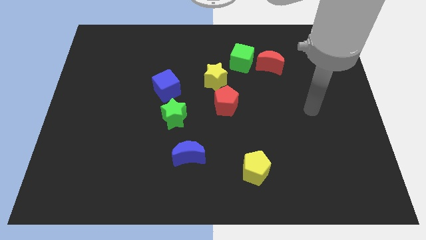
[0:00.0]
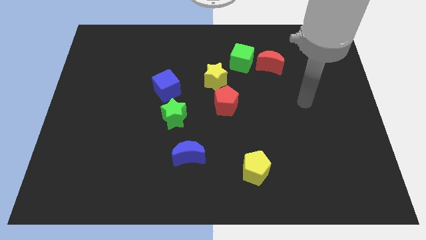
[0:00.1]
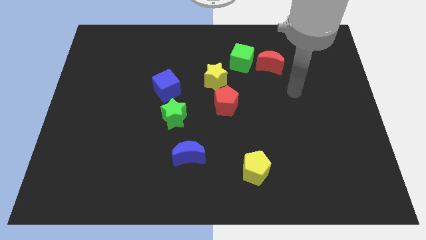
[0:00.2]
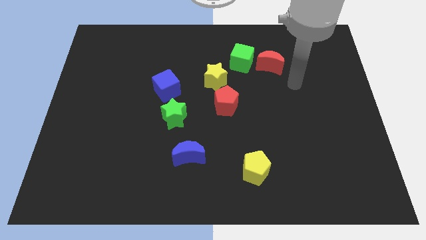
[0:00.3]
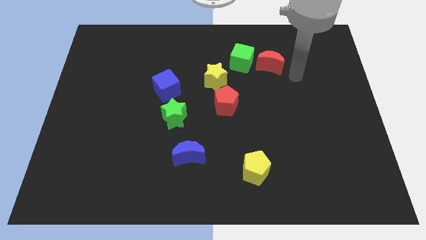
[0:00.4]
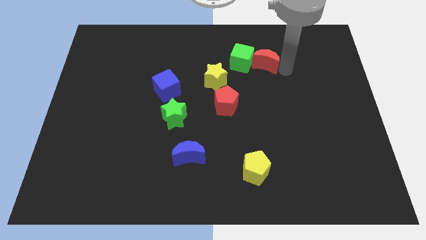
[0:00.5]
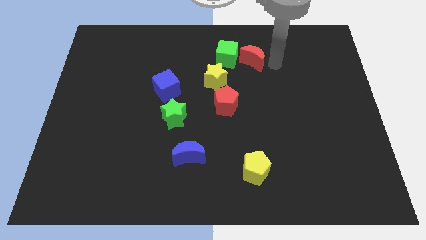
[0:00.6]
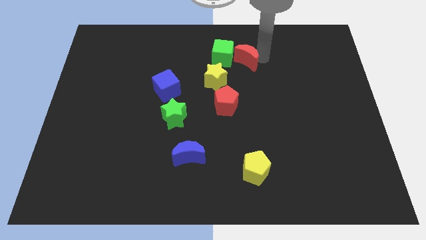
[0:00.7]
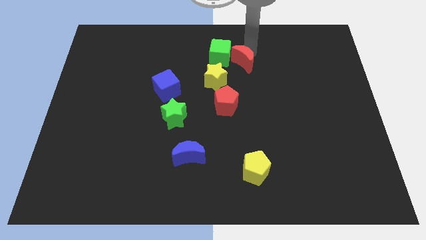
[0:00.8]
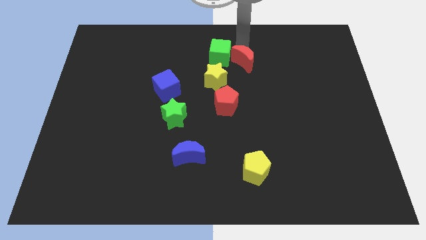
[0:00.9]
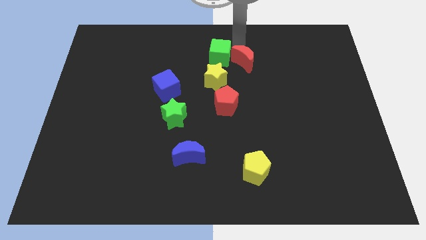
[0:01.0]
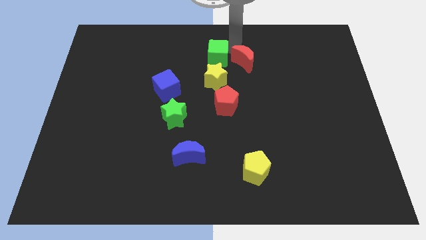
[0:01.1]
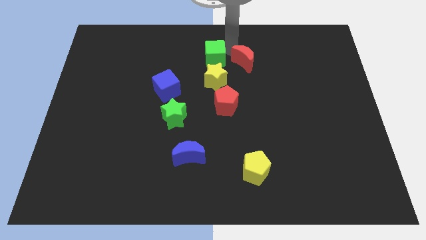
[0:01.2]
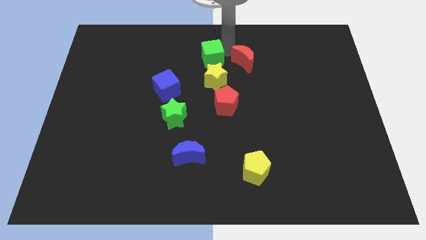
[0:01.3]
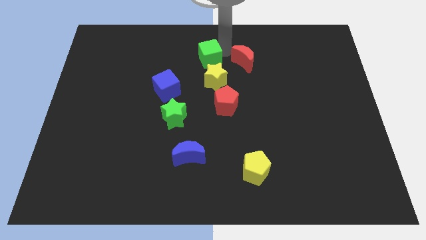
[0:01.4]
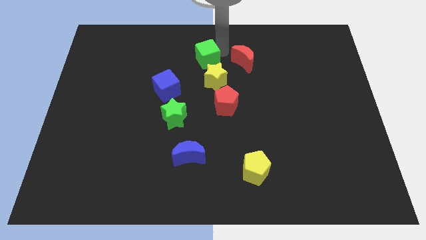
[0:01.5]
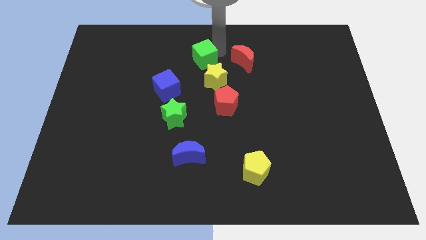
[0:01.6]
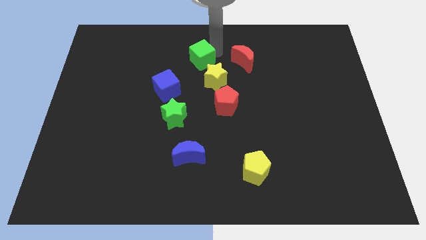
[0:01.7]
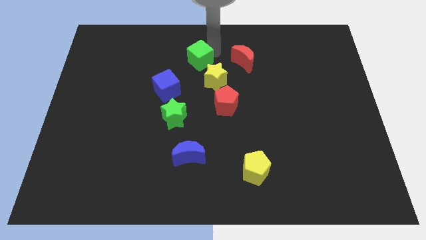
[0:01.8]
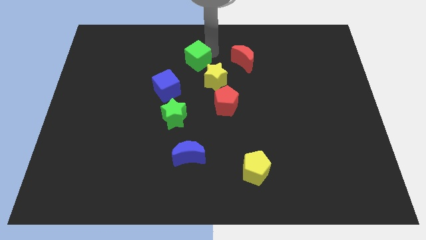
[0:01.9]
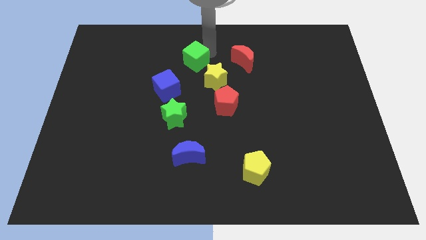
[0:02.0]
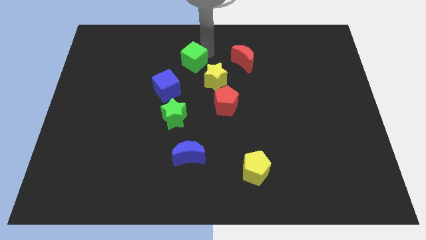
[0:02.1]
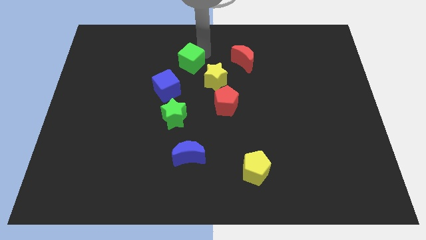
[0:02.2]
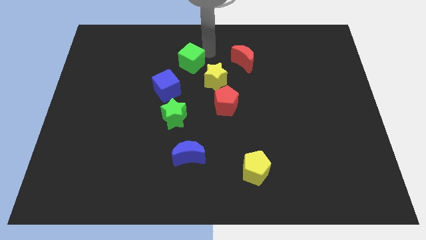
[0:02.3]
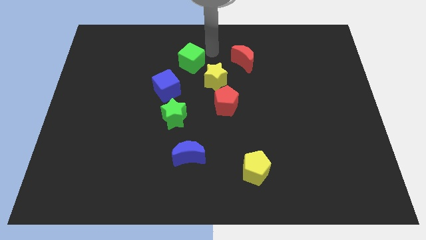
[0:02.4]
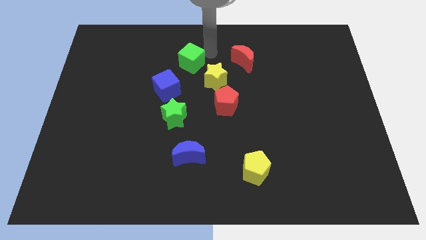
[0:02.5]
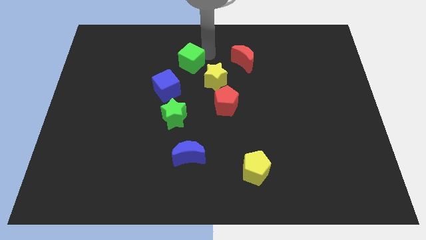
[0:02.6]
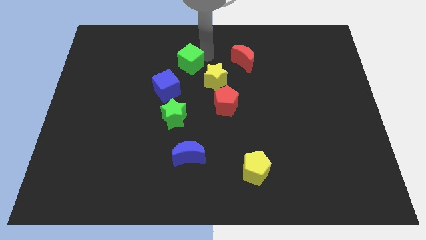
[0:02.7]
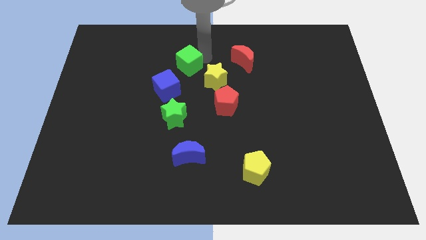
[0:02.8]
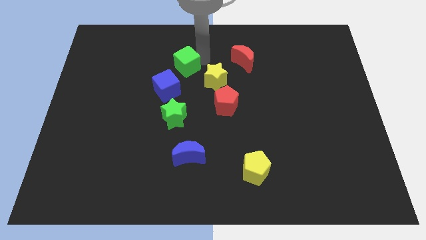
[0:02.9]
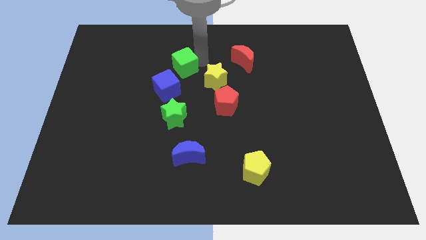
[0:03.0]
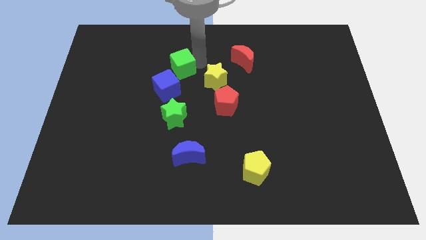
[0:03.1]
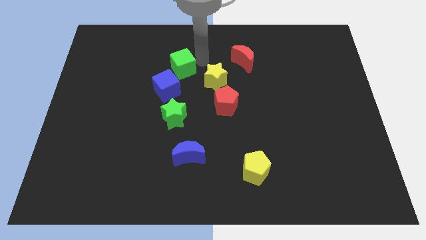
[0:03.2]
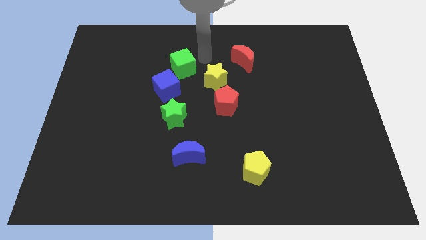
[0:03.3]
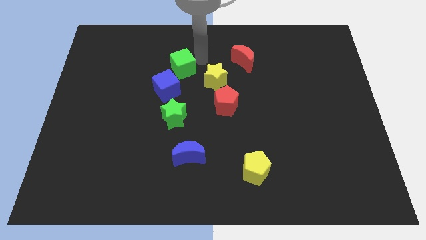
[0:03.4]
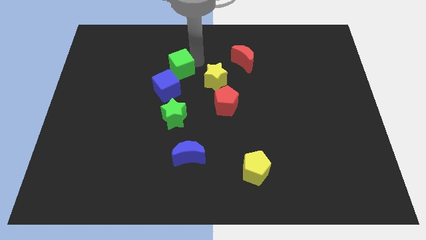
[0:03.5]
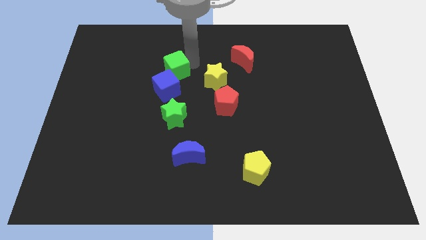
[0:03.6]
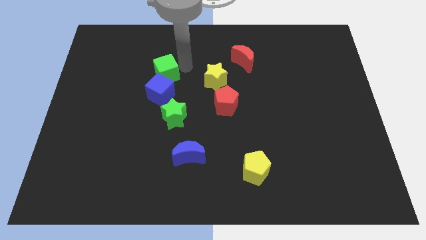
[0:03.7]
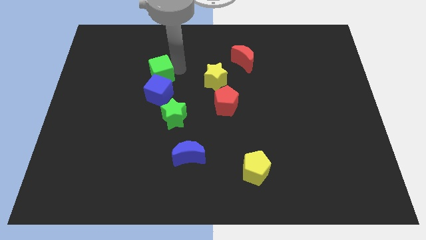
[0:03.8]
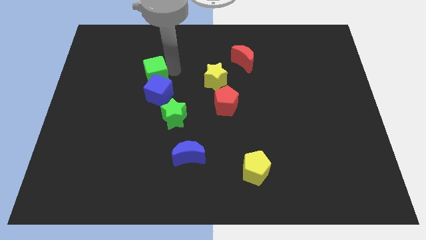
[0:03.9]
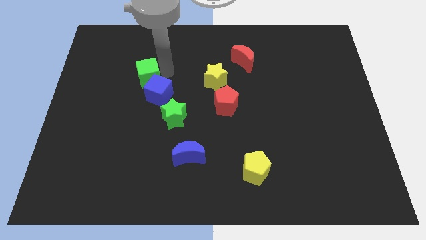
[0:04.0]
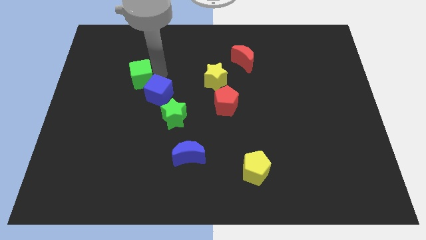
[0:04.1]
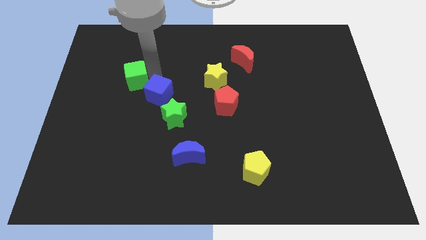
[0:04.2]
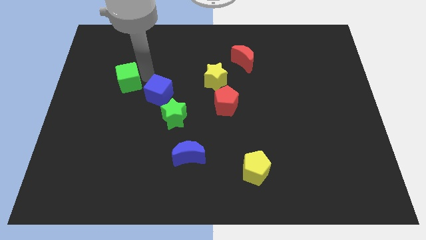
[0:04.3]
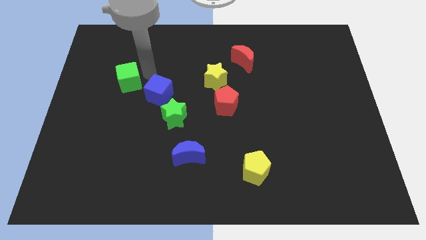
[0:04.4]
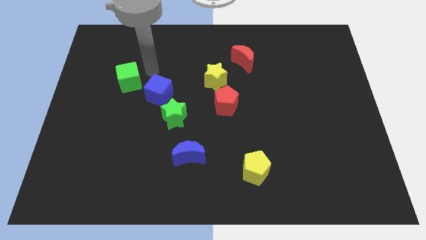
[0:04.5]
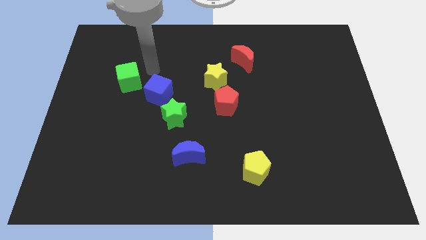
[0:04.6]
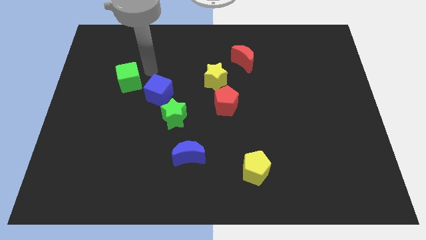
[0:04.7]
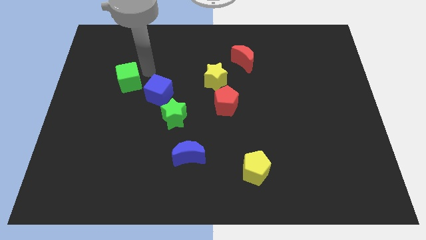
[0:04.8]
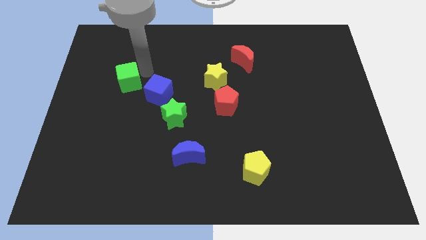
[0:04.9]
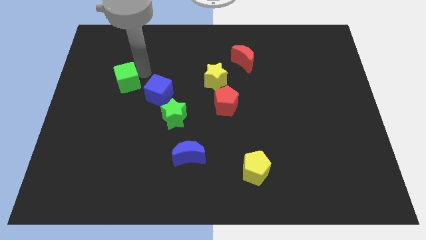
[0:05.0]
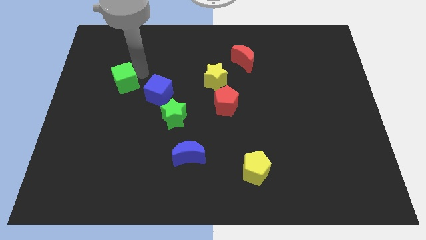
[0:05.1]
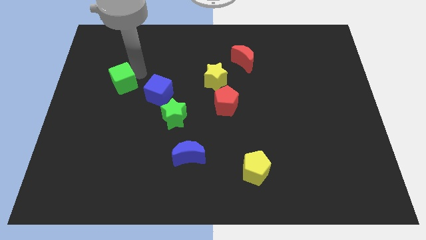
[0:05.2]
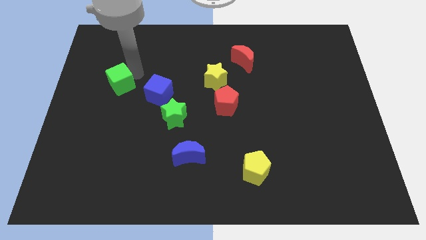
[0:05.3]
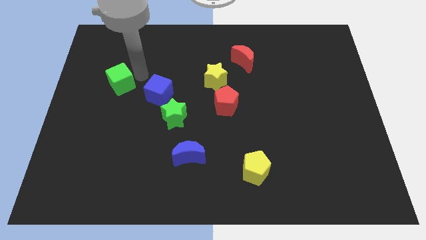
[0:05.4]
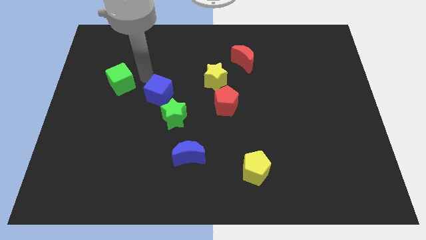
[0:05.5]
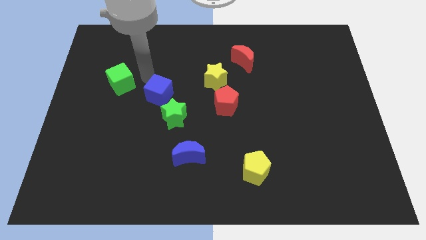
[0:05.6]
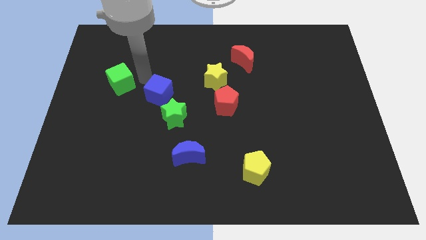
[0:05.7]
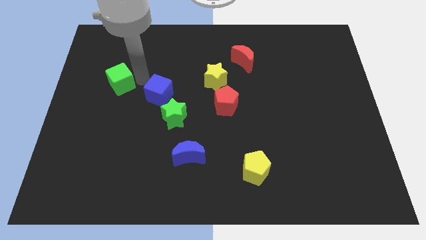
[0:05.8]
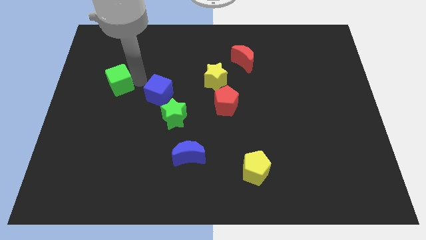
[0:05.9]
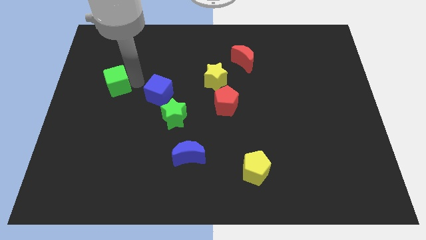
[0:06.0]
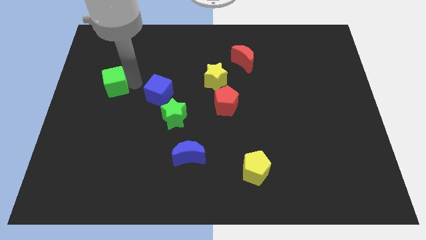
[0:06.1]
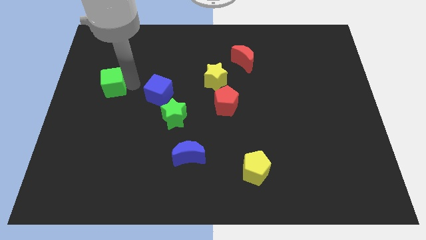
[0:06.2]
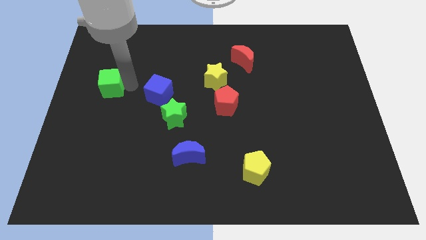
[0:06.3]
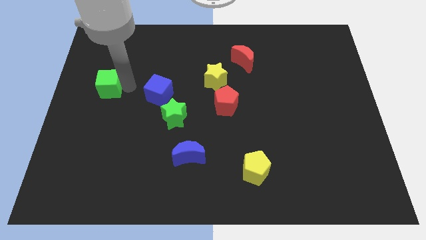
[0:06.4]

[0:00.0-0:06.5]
put the green cube to the center left

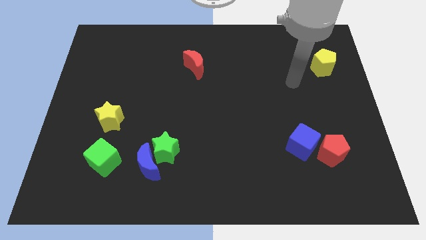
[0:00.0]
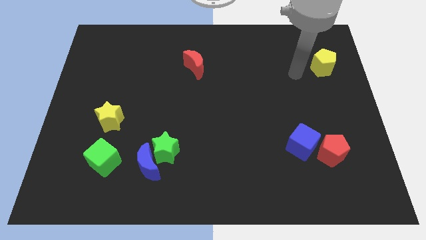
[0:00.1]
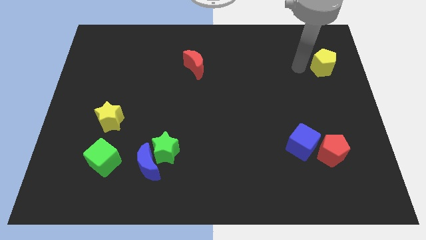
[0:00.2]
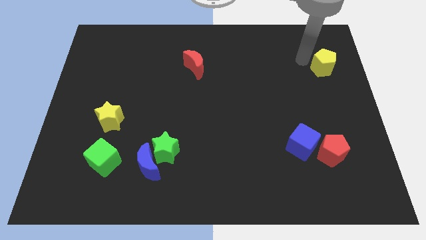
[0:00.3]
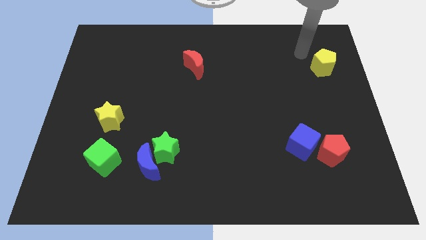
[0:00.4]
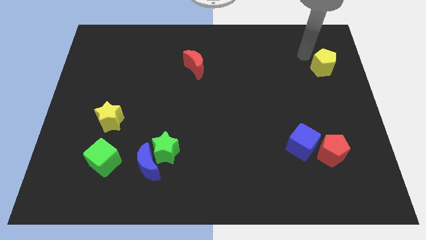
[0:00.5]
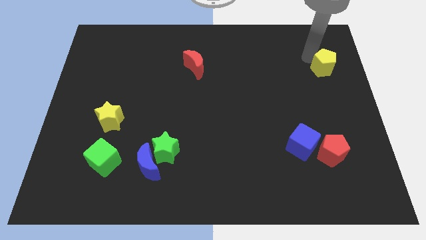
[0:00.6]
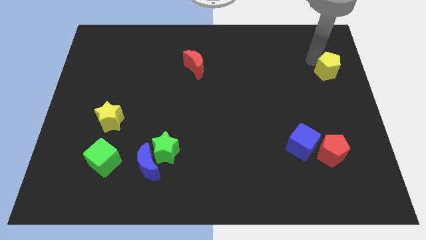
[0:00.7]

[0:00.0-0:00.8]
push the yellow pentagon to the right side of the board
